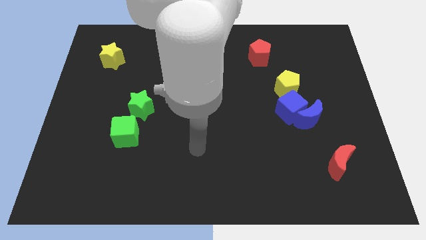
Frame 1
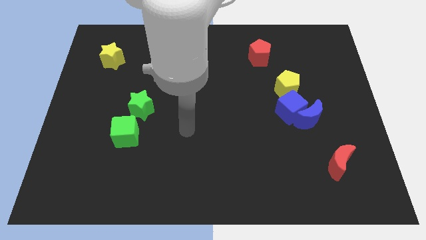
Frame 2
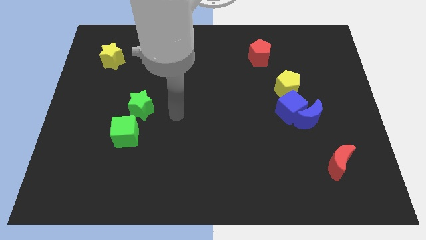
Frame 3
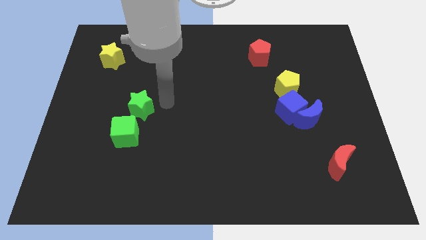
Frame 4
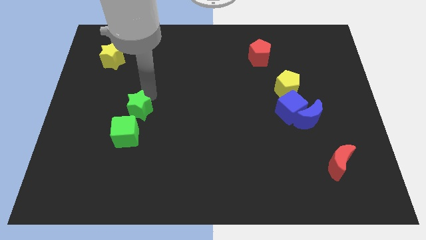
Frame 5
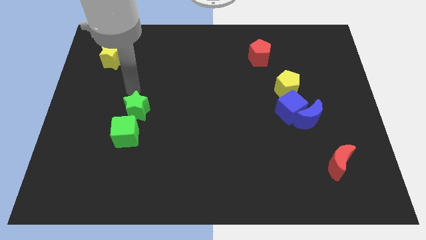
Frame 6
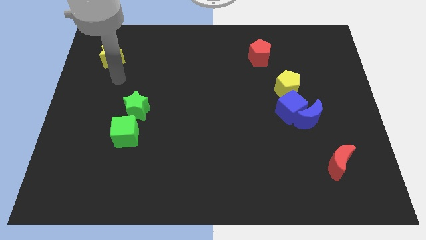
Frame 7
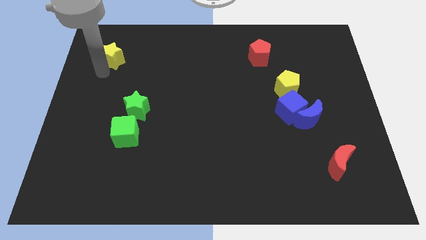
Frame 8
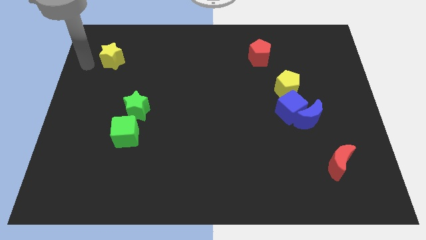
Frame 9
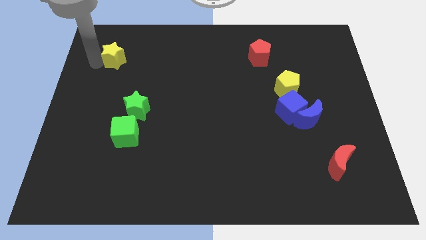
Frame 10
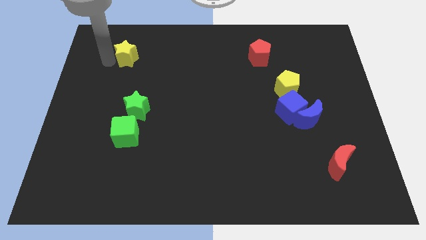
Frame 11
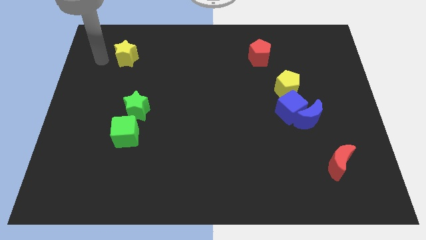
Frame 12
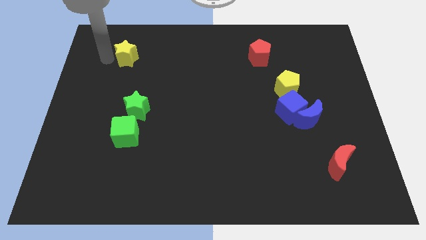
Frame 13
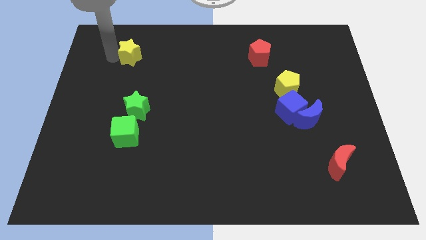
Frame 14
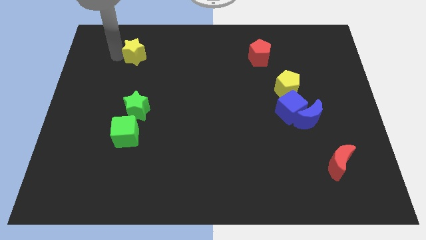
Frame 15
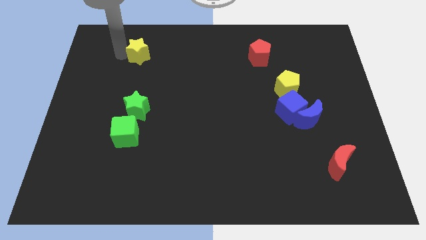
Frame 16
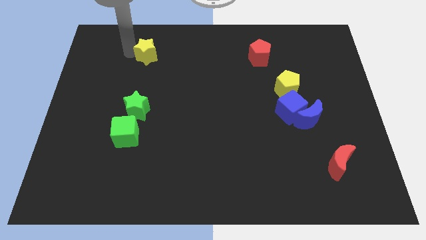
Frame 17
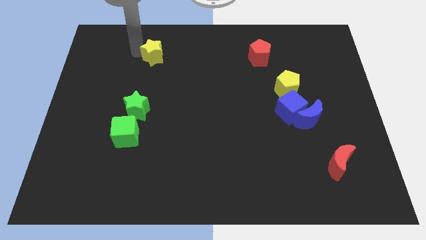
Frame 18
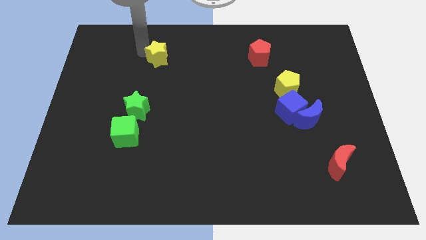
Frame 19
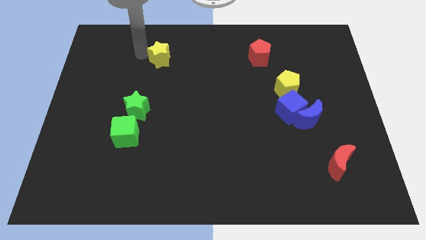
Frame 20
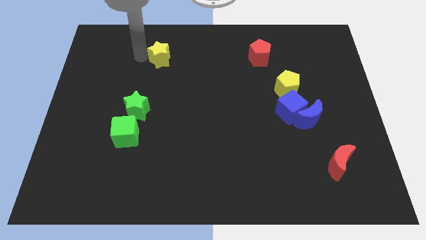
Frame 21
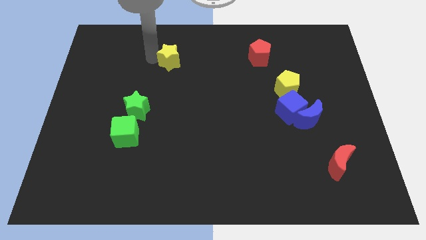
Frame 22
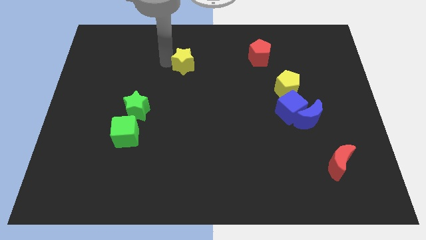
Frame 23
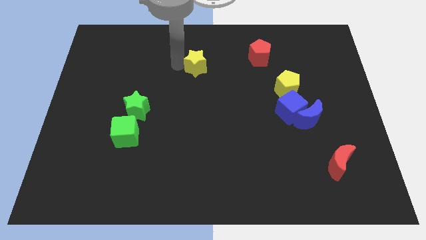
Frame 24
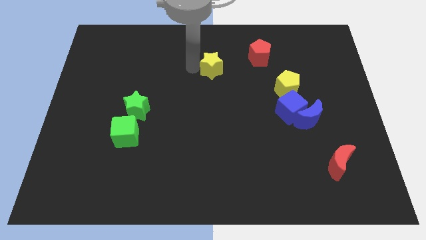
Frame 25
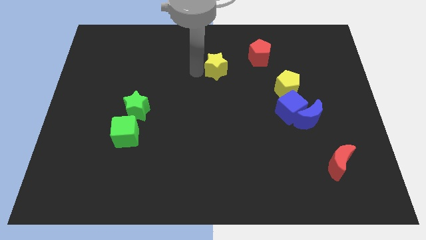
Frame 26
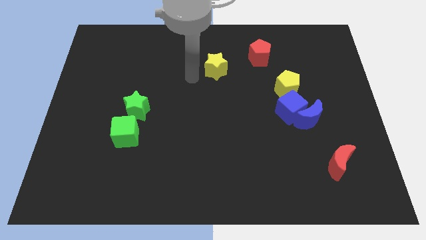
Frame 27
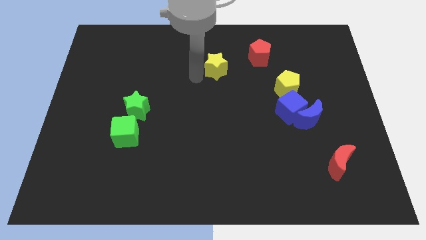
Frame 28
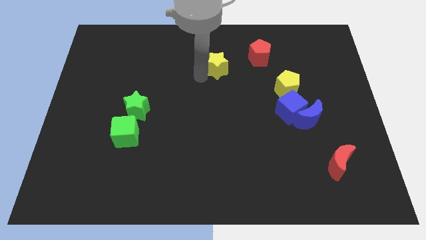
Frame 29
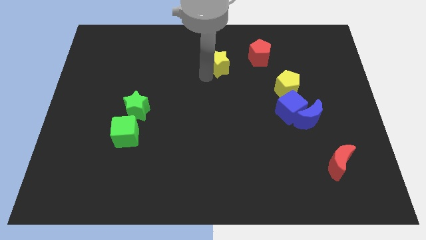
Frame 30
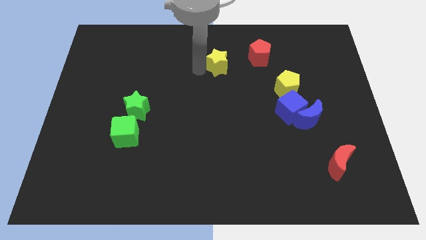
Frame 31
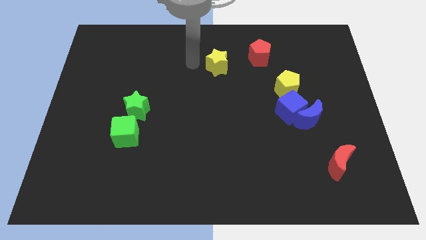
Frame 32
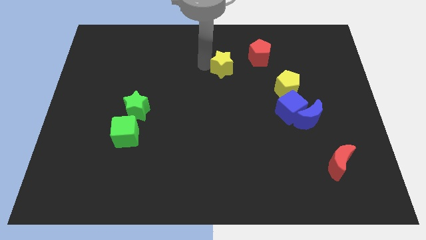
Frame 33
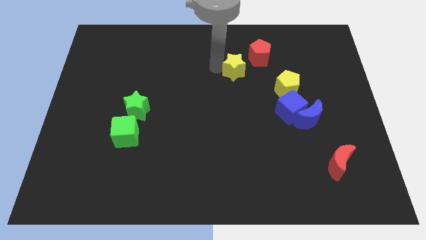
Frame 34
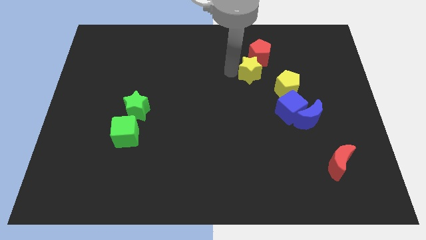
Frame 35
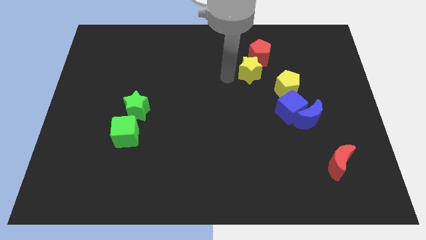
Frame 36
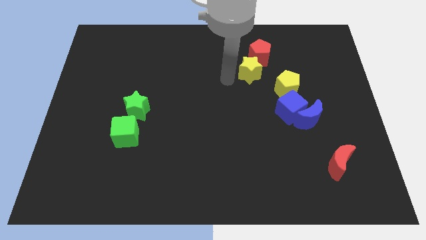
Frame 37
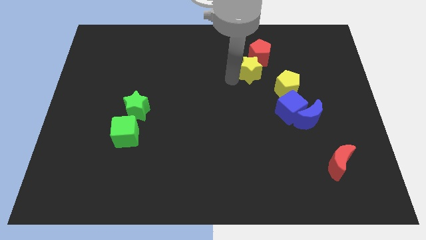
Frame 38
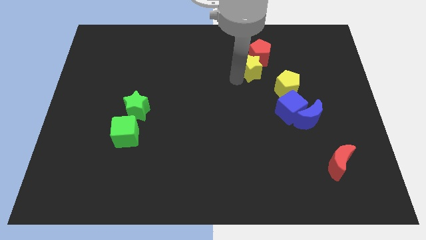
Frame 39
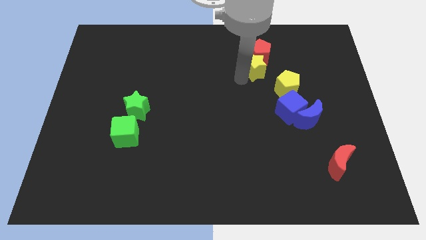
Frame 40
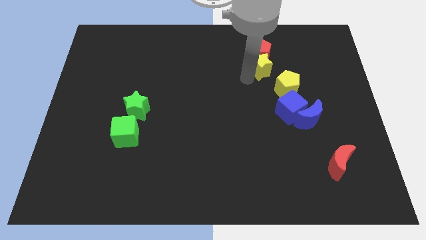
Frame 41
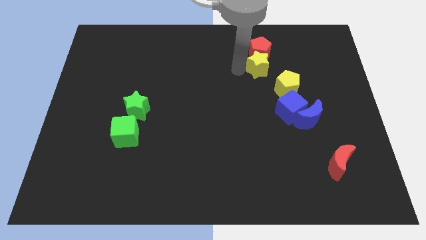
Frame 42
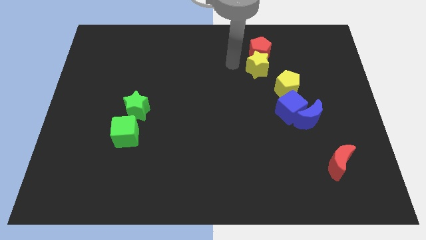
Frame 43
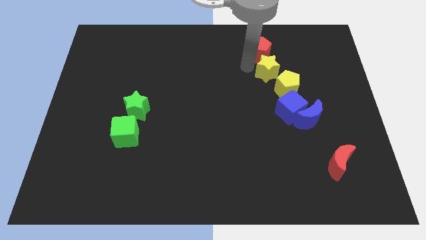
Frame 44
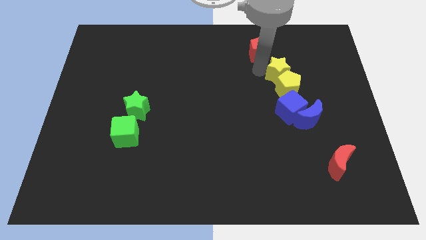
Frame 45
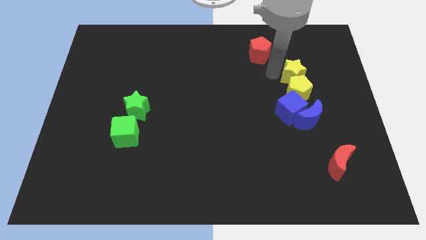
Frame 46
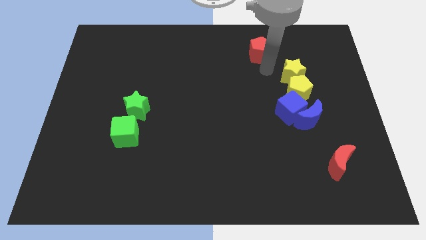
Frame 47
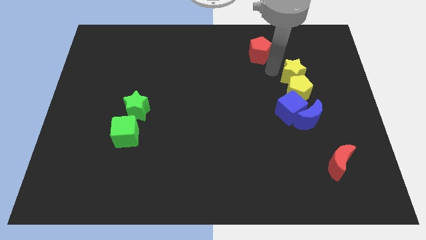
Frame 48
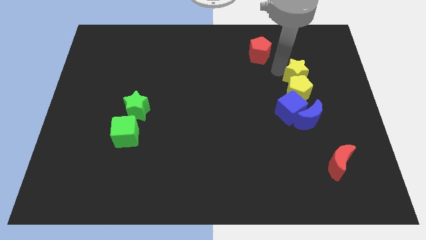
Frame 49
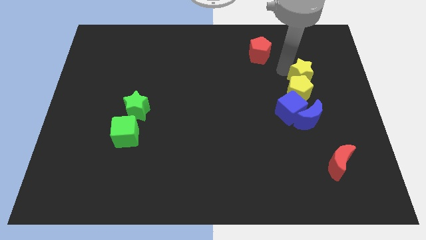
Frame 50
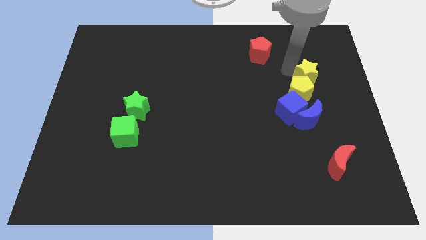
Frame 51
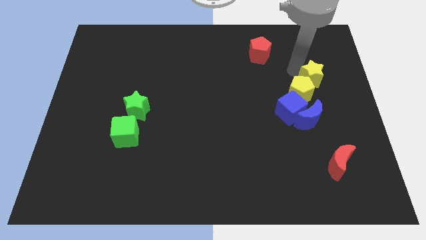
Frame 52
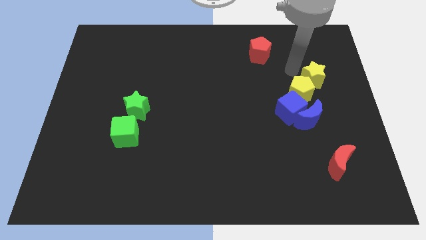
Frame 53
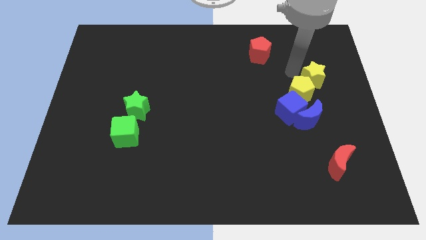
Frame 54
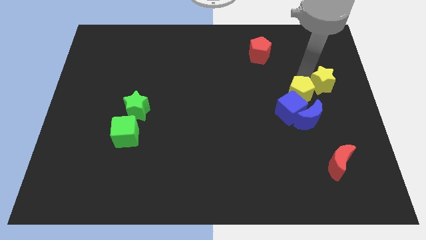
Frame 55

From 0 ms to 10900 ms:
move the yellow star to the center right
